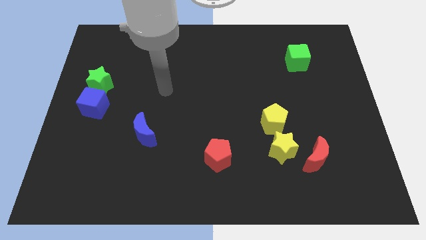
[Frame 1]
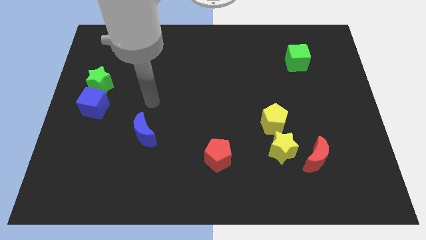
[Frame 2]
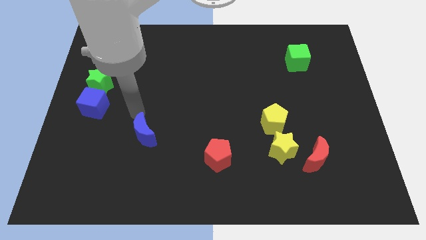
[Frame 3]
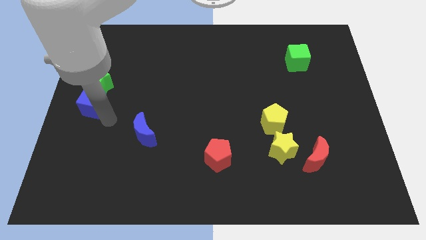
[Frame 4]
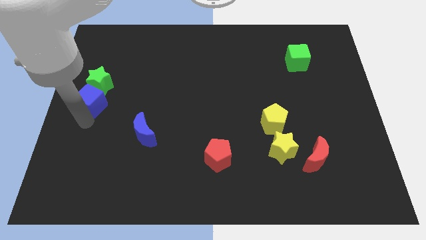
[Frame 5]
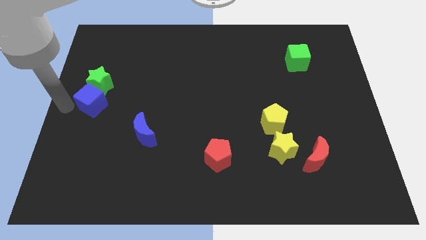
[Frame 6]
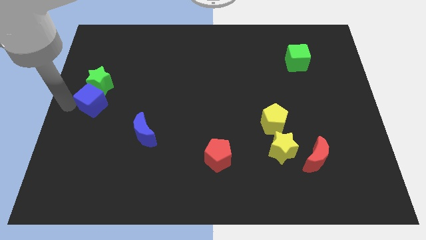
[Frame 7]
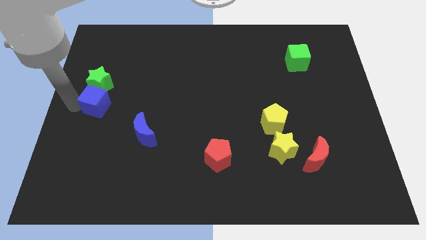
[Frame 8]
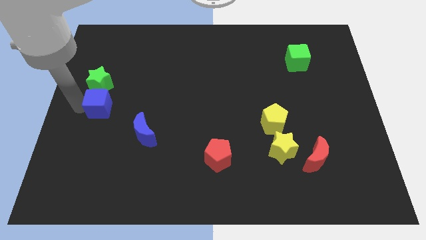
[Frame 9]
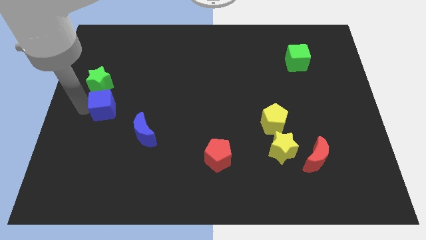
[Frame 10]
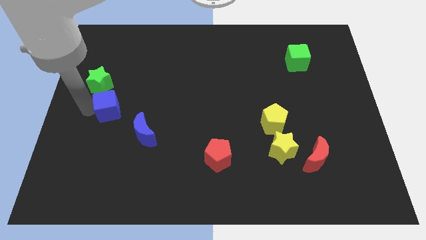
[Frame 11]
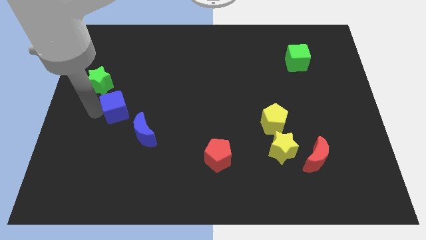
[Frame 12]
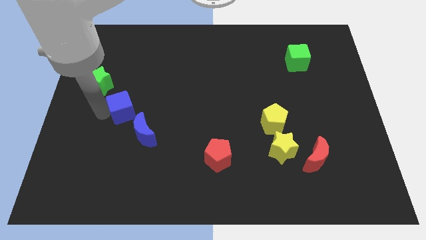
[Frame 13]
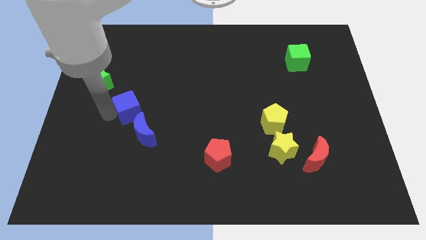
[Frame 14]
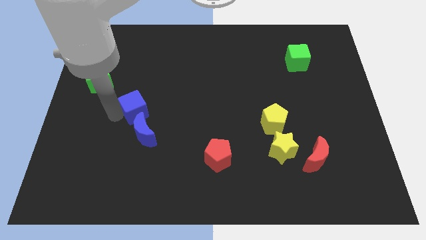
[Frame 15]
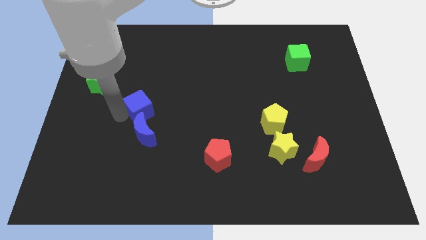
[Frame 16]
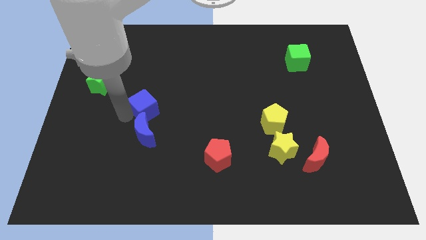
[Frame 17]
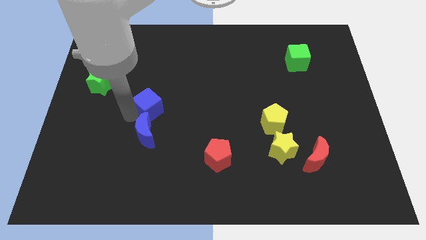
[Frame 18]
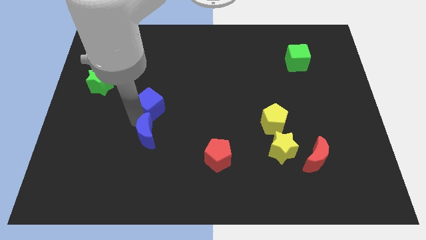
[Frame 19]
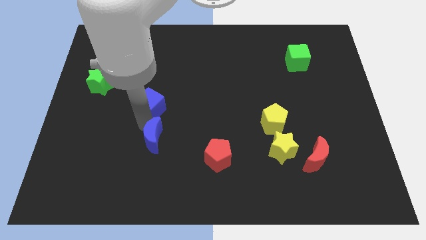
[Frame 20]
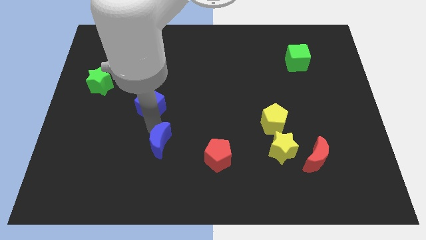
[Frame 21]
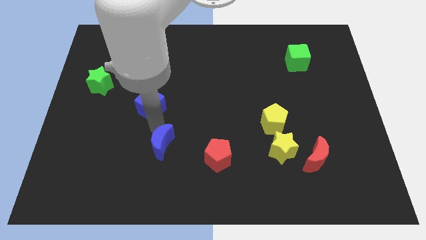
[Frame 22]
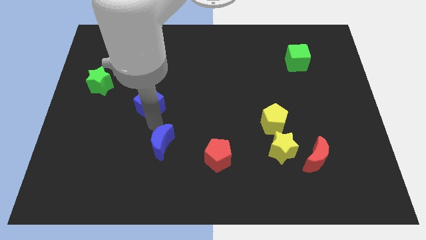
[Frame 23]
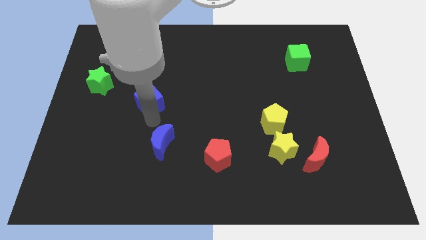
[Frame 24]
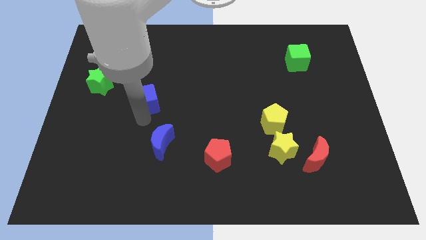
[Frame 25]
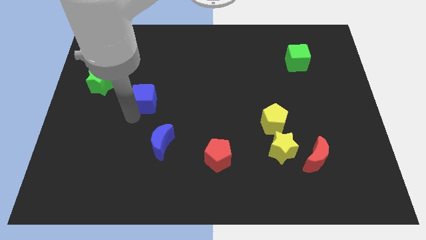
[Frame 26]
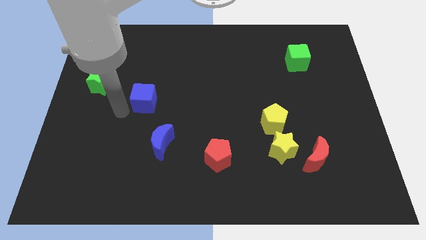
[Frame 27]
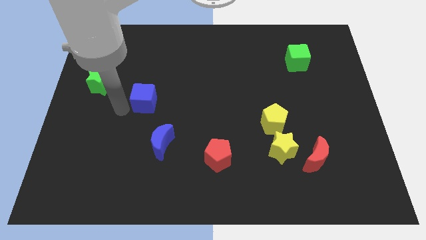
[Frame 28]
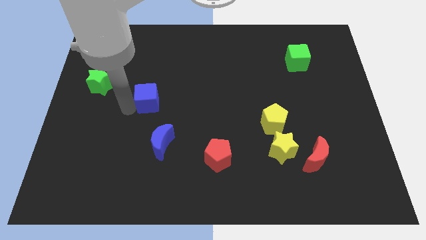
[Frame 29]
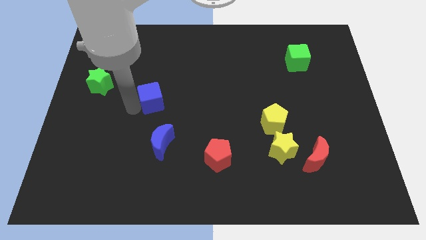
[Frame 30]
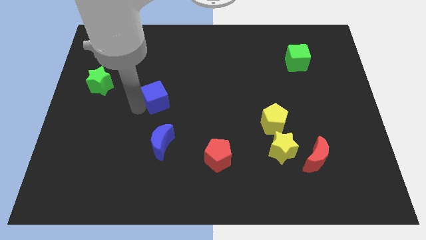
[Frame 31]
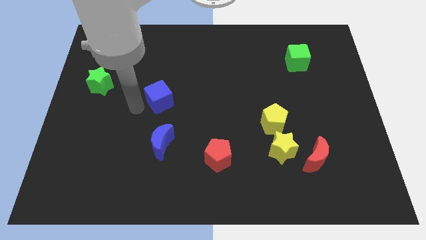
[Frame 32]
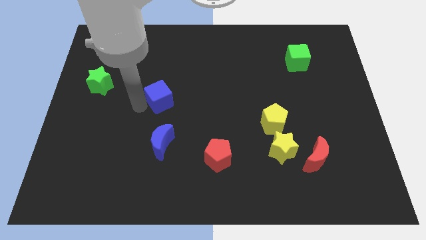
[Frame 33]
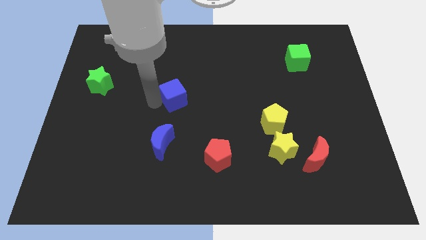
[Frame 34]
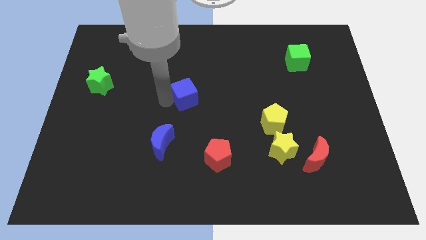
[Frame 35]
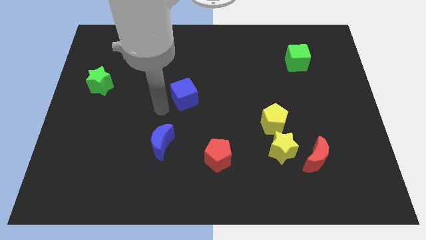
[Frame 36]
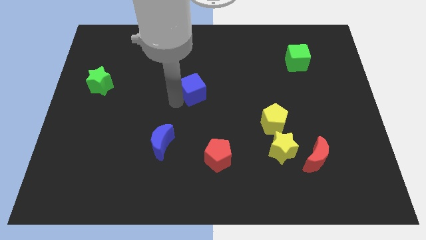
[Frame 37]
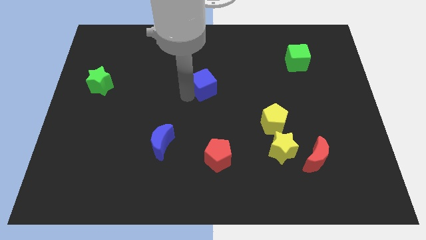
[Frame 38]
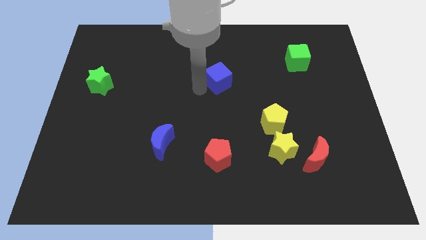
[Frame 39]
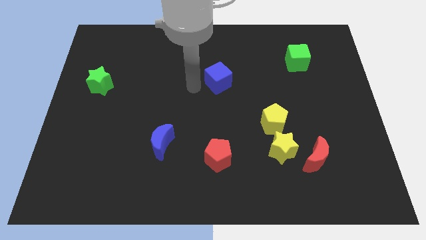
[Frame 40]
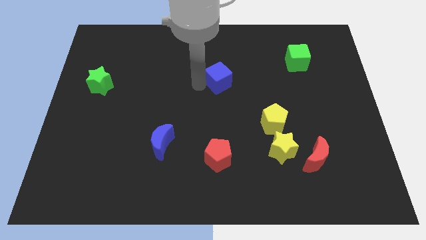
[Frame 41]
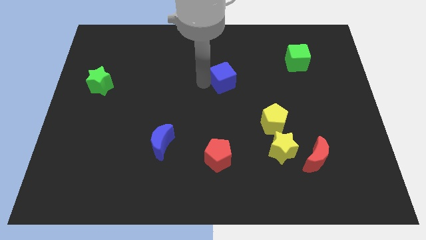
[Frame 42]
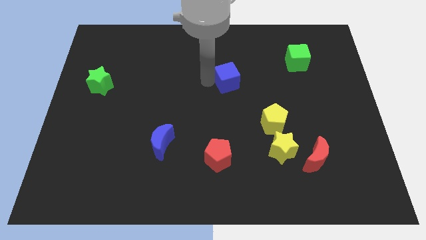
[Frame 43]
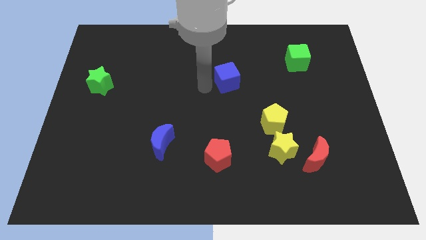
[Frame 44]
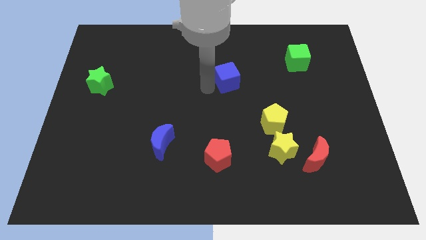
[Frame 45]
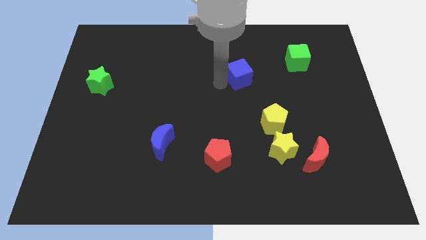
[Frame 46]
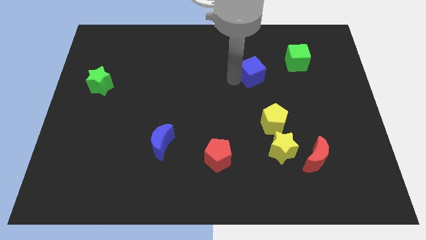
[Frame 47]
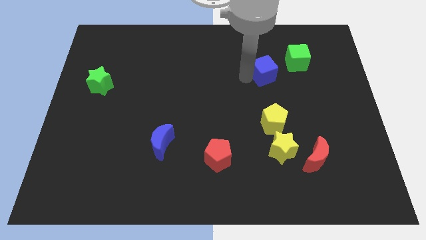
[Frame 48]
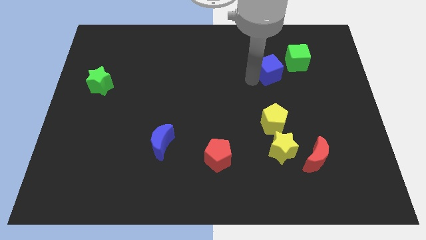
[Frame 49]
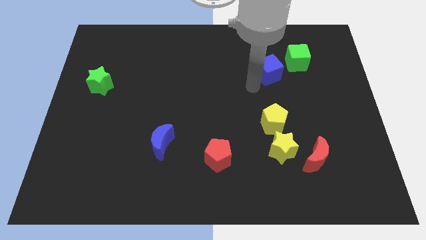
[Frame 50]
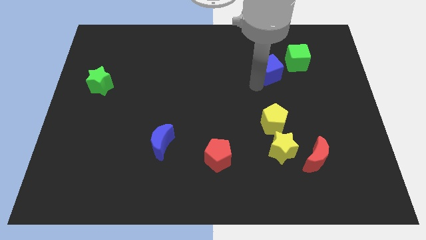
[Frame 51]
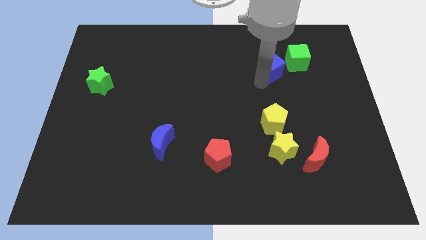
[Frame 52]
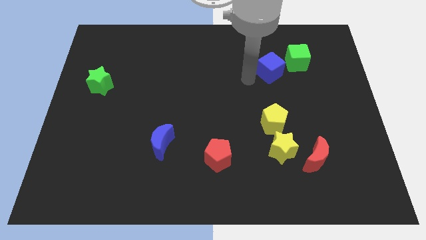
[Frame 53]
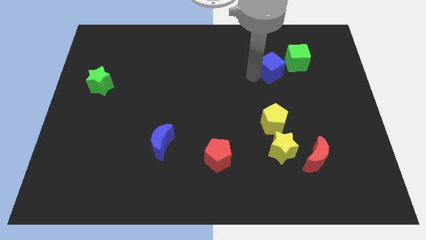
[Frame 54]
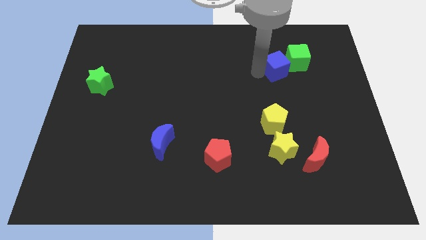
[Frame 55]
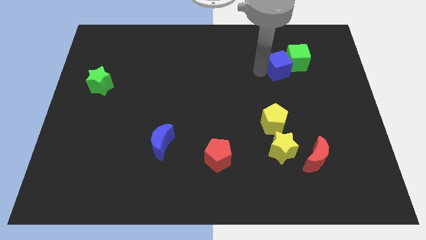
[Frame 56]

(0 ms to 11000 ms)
push the blue cube next to the green cube

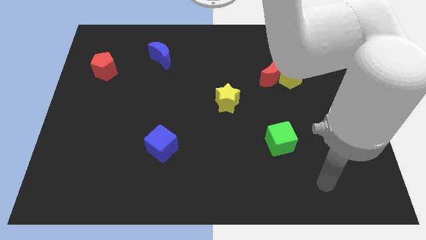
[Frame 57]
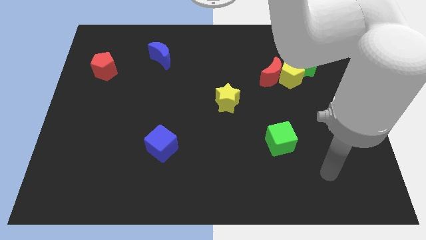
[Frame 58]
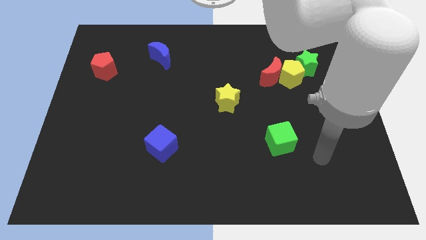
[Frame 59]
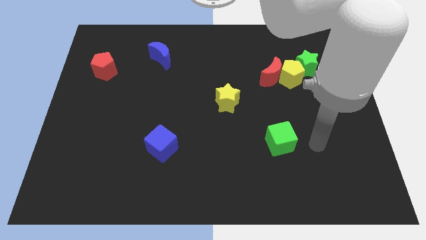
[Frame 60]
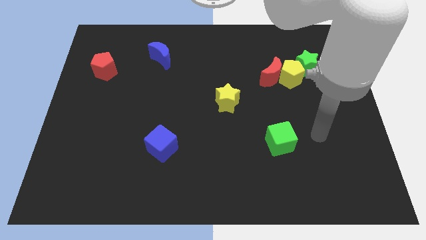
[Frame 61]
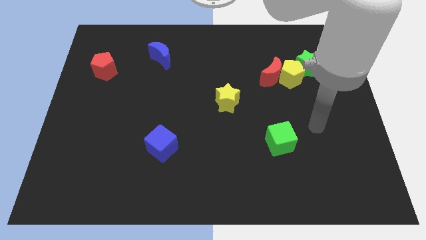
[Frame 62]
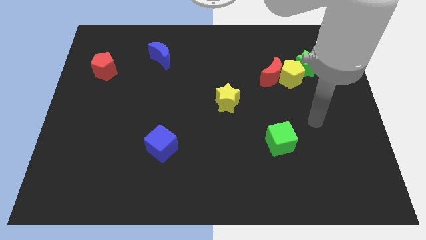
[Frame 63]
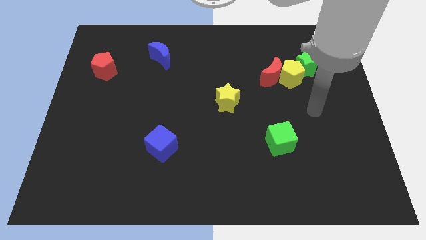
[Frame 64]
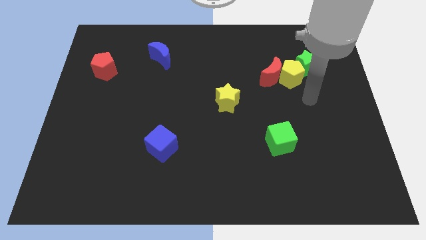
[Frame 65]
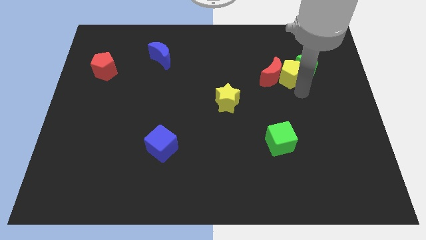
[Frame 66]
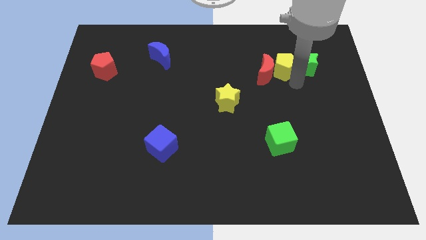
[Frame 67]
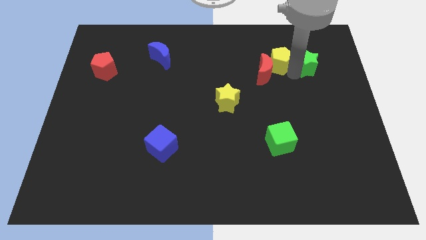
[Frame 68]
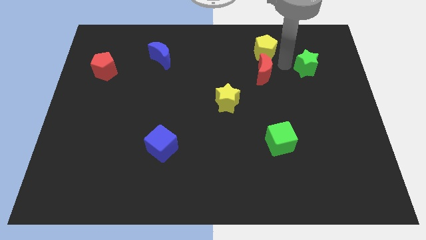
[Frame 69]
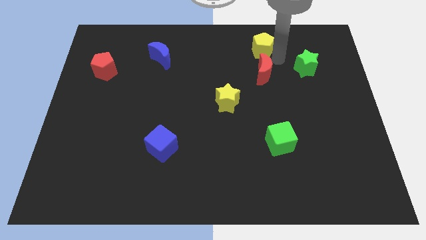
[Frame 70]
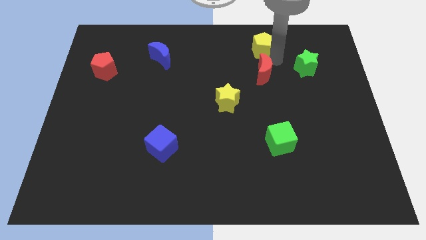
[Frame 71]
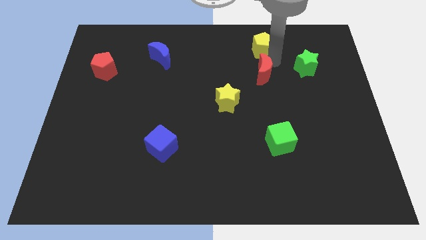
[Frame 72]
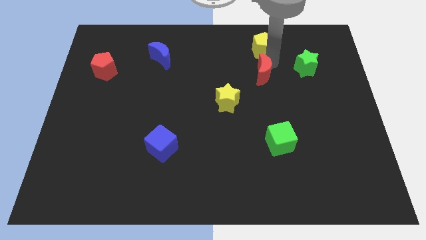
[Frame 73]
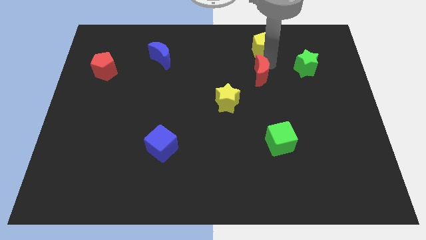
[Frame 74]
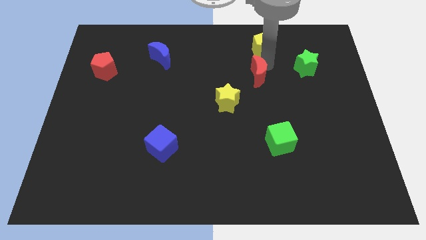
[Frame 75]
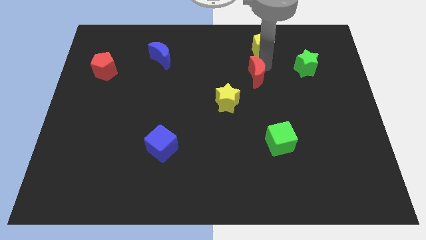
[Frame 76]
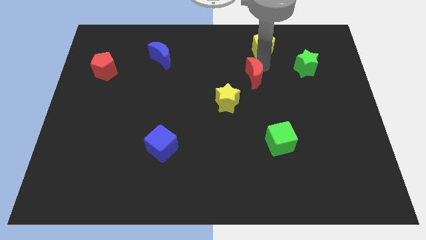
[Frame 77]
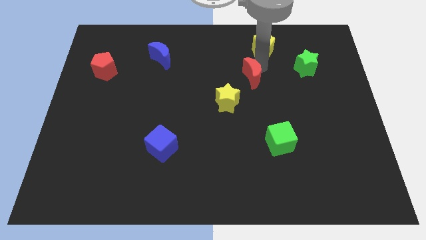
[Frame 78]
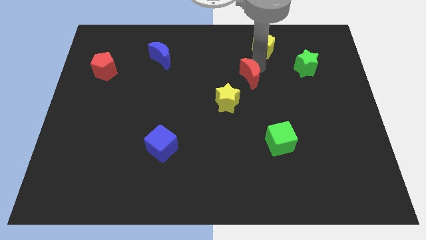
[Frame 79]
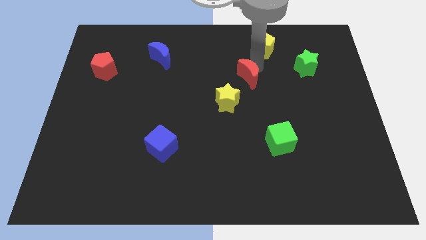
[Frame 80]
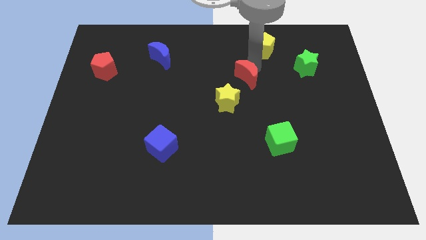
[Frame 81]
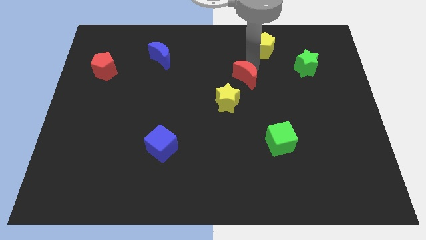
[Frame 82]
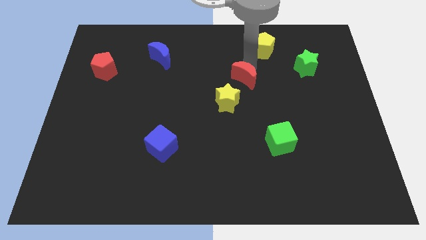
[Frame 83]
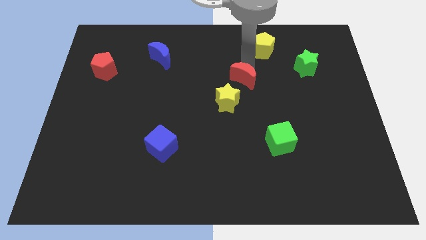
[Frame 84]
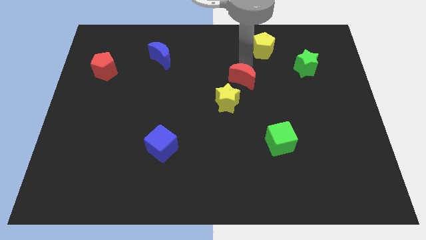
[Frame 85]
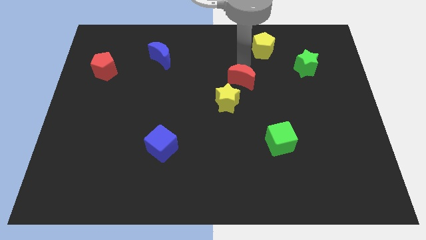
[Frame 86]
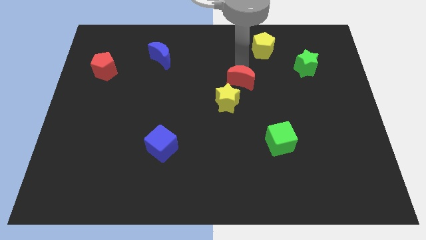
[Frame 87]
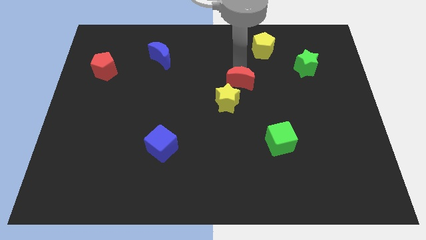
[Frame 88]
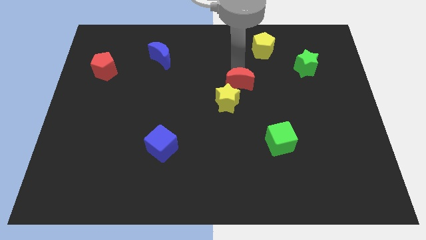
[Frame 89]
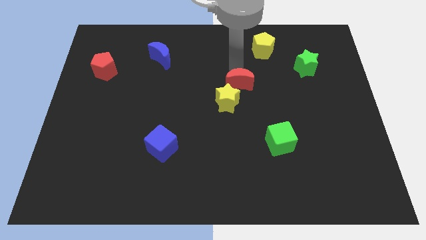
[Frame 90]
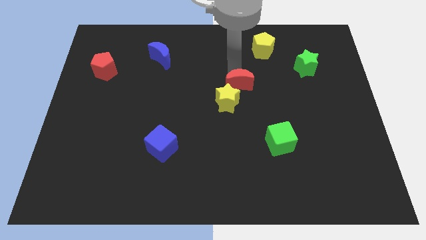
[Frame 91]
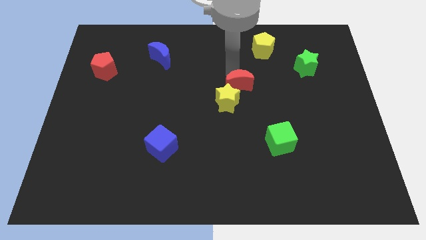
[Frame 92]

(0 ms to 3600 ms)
push the red moon next to the yellow star
